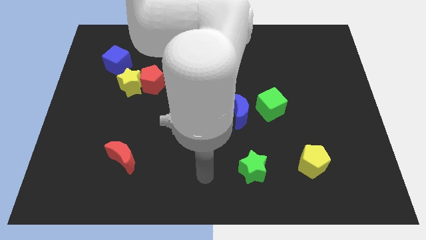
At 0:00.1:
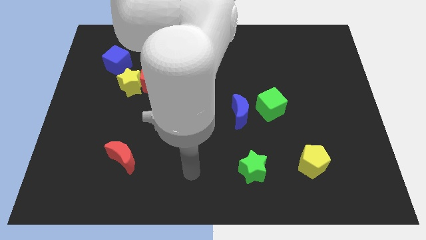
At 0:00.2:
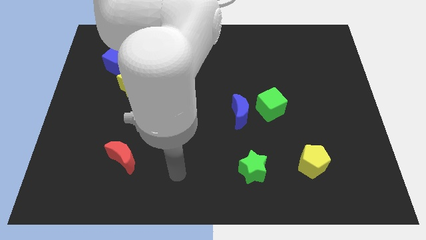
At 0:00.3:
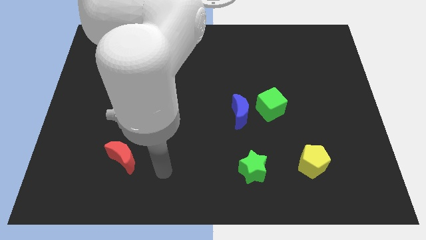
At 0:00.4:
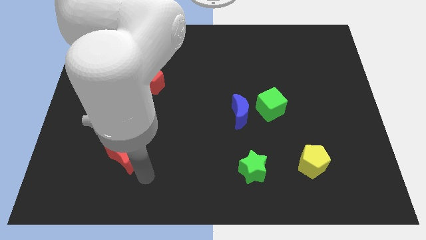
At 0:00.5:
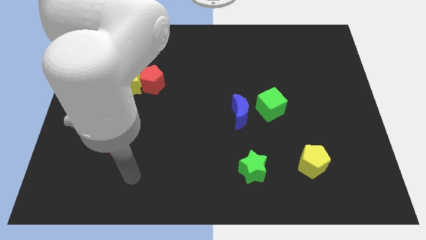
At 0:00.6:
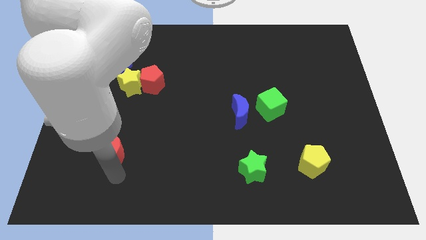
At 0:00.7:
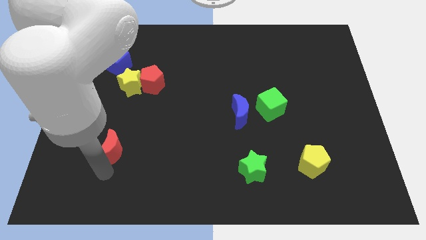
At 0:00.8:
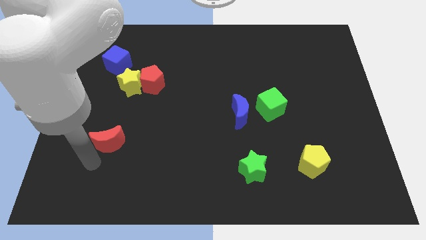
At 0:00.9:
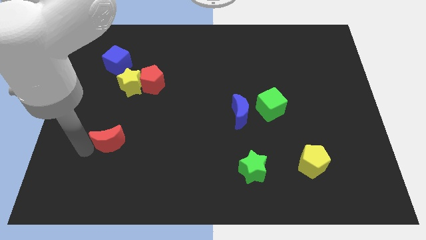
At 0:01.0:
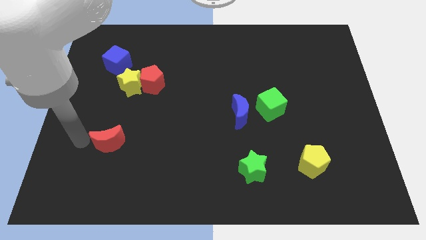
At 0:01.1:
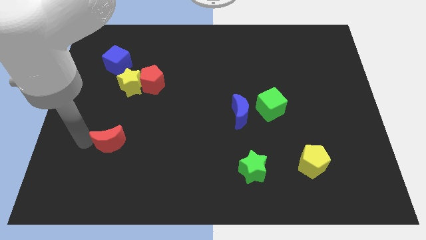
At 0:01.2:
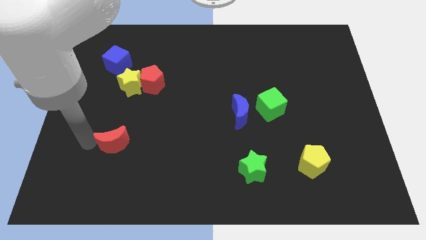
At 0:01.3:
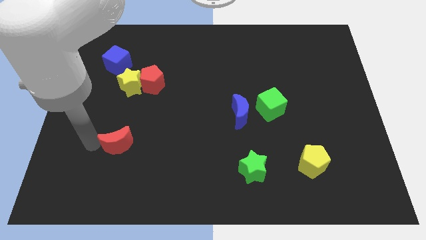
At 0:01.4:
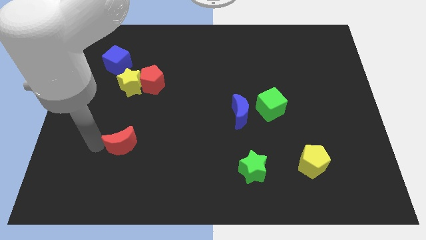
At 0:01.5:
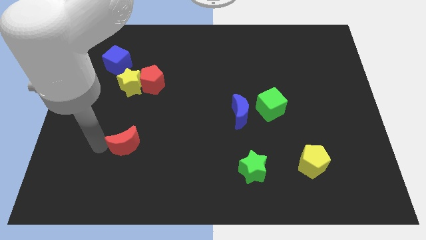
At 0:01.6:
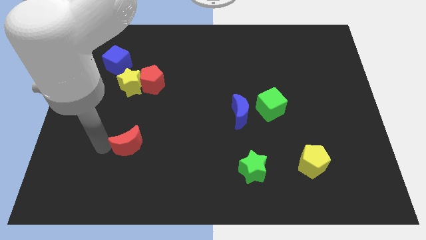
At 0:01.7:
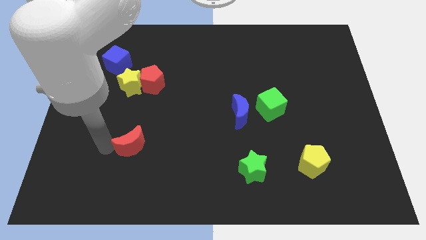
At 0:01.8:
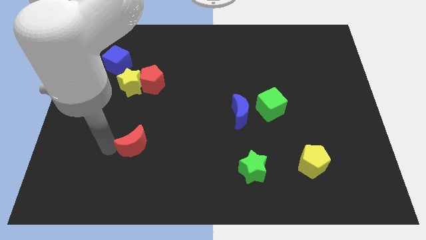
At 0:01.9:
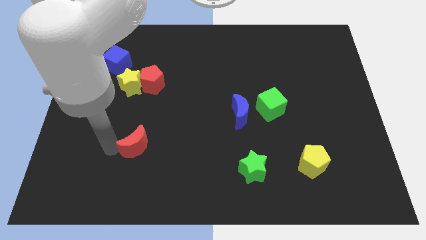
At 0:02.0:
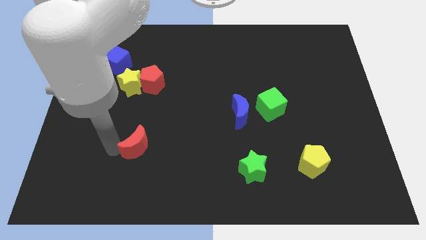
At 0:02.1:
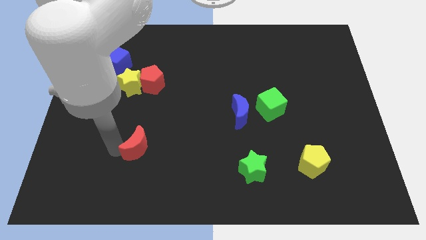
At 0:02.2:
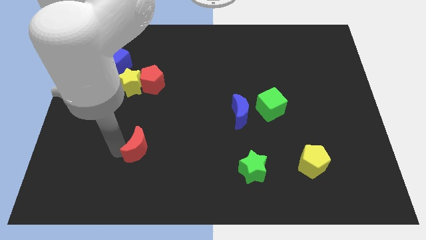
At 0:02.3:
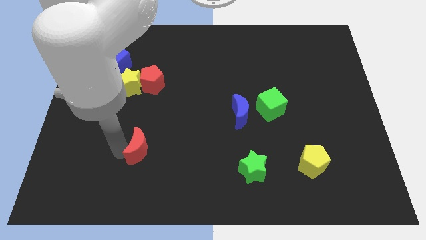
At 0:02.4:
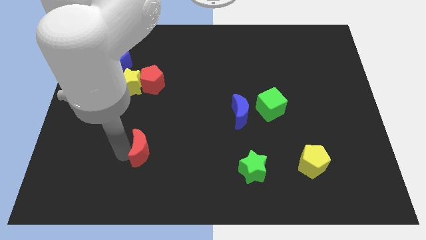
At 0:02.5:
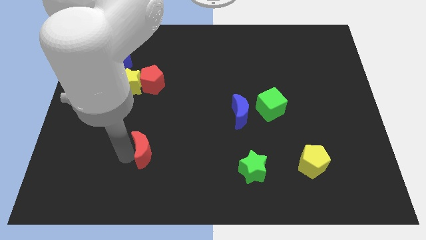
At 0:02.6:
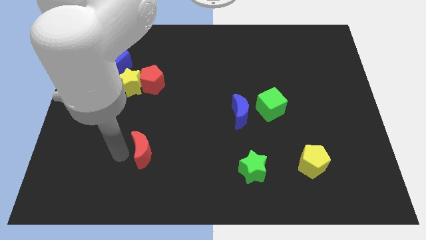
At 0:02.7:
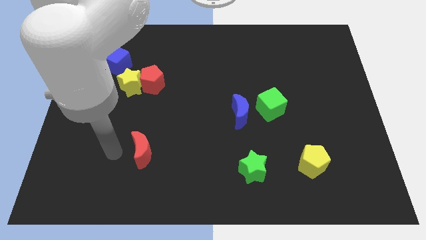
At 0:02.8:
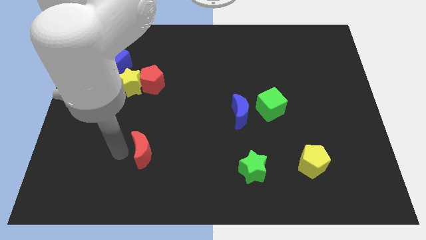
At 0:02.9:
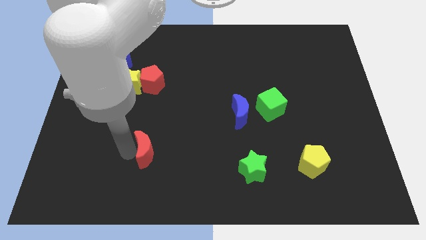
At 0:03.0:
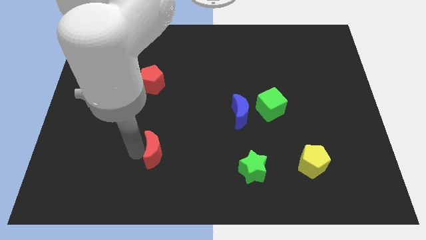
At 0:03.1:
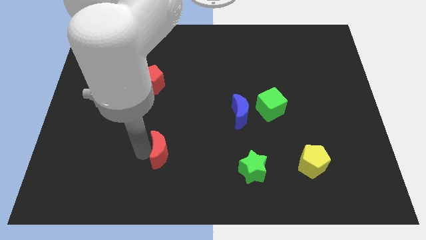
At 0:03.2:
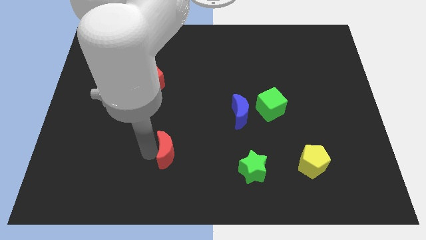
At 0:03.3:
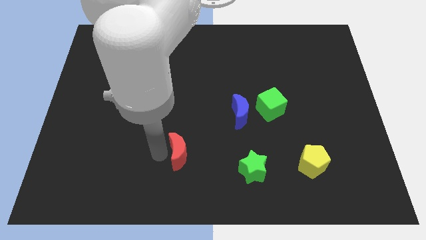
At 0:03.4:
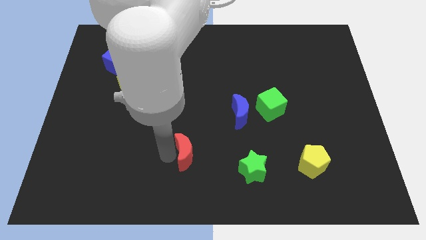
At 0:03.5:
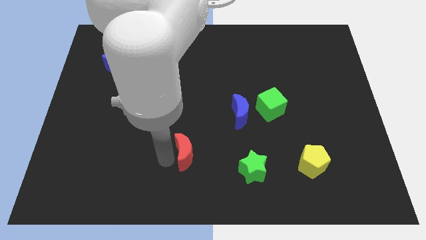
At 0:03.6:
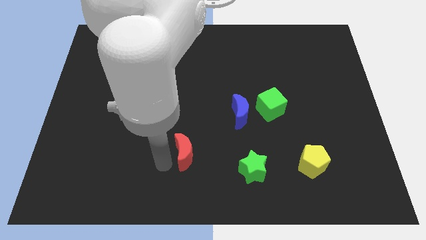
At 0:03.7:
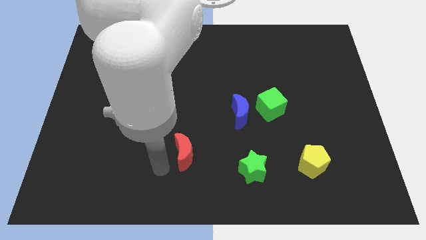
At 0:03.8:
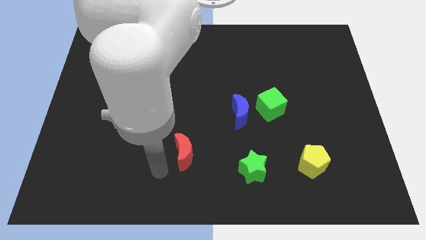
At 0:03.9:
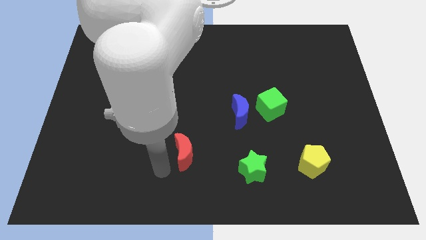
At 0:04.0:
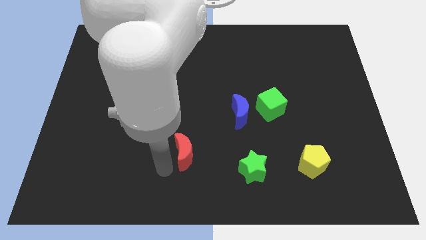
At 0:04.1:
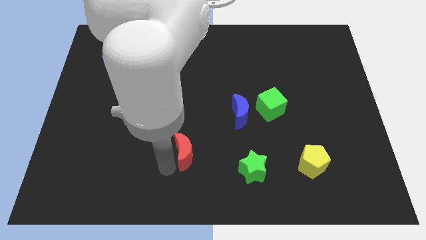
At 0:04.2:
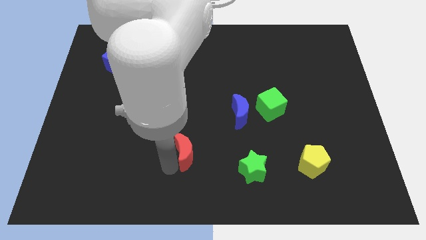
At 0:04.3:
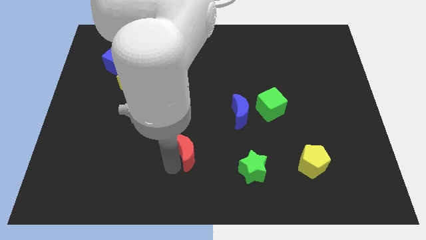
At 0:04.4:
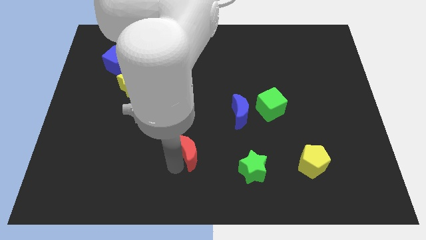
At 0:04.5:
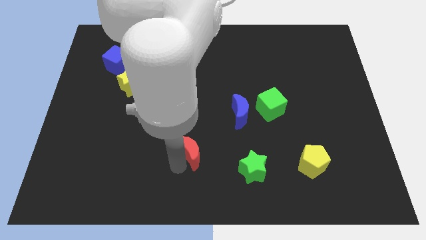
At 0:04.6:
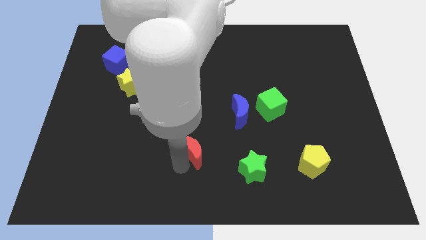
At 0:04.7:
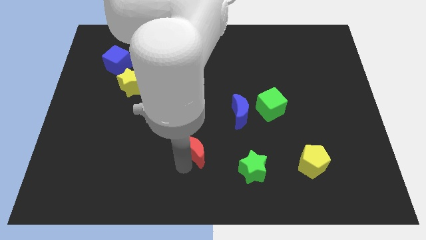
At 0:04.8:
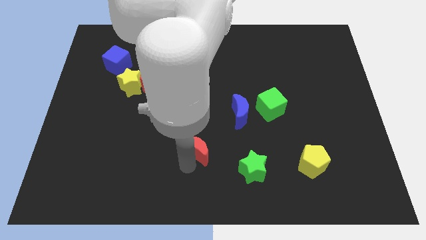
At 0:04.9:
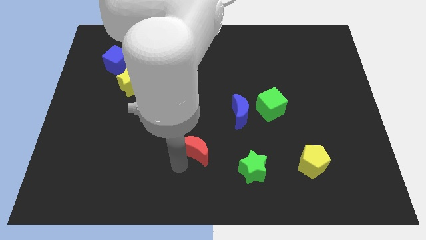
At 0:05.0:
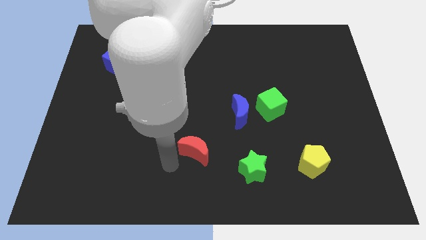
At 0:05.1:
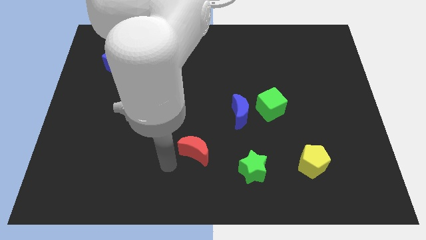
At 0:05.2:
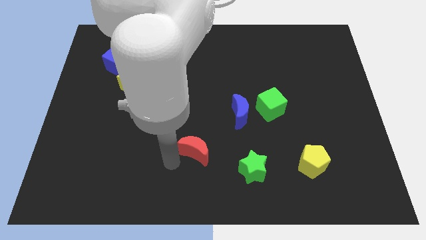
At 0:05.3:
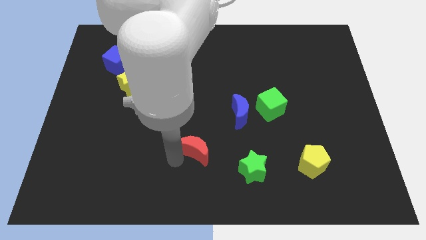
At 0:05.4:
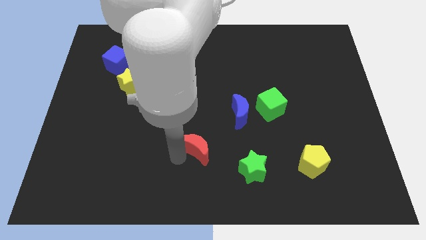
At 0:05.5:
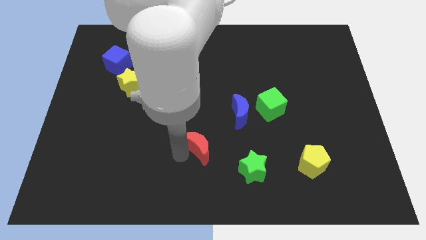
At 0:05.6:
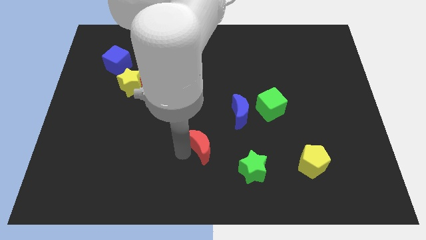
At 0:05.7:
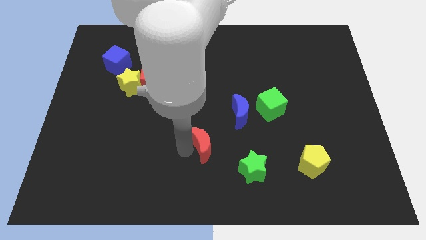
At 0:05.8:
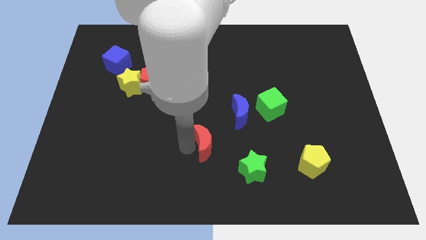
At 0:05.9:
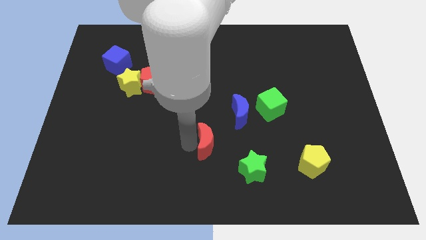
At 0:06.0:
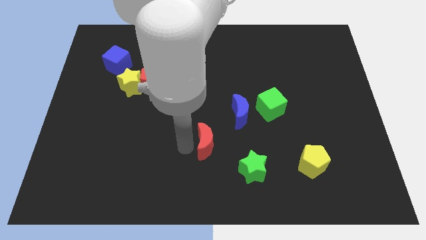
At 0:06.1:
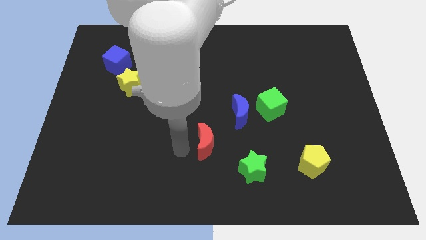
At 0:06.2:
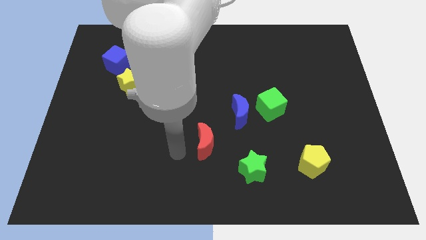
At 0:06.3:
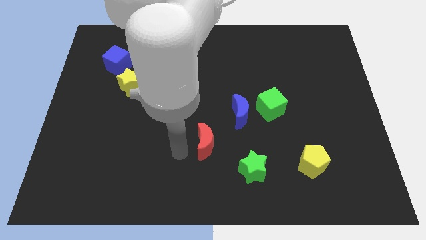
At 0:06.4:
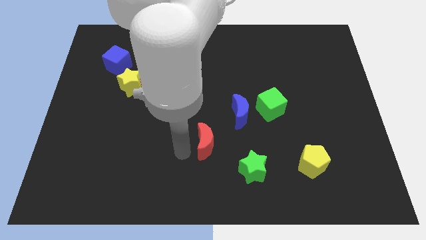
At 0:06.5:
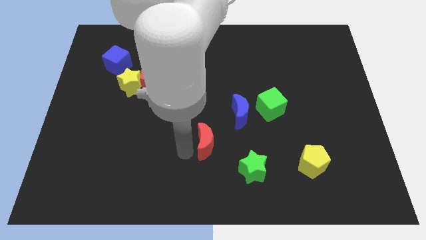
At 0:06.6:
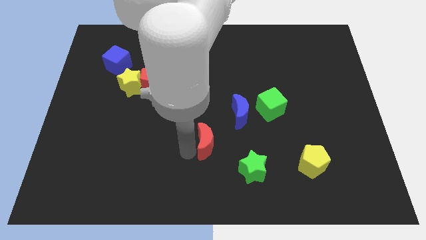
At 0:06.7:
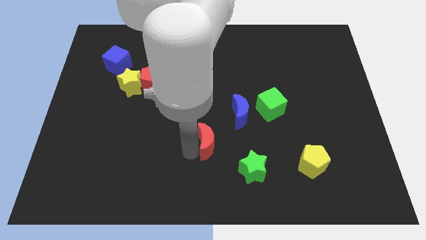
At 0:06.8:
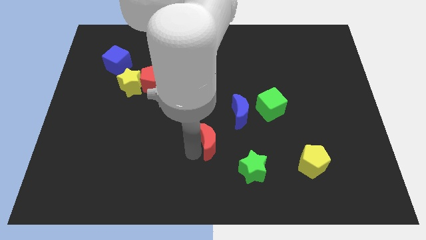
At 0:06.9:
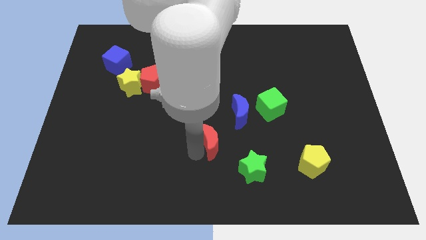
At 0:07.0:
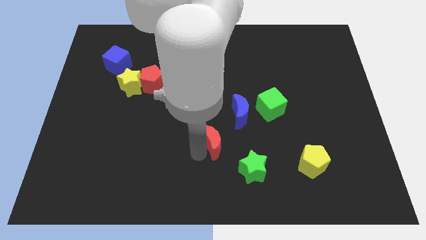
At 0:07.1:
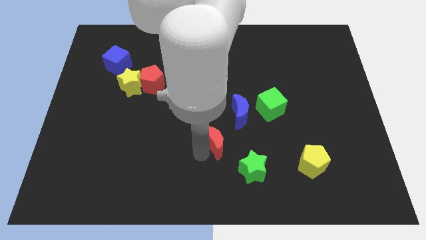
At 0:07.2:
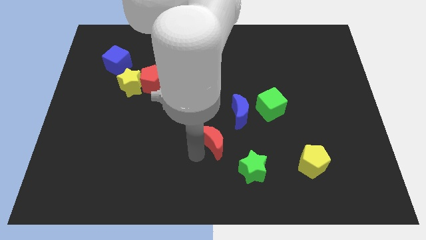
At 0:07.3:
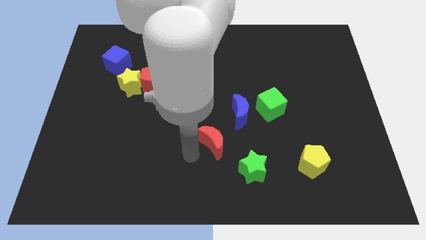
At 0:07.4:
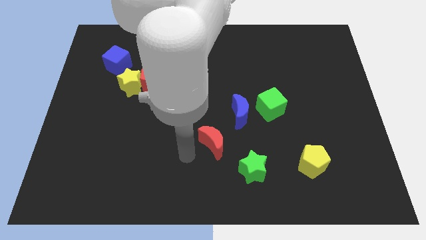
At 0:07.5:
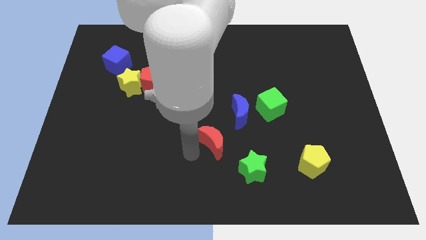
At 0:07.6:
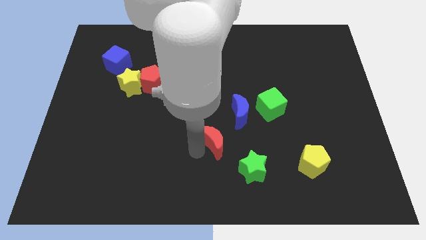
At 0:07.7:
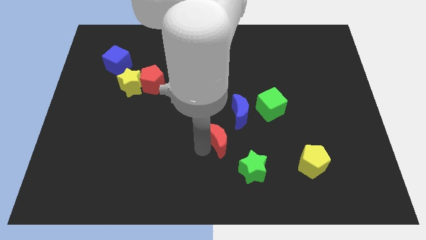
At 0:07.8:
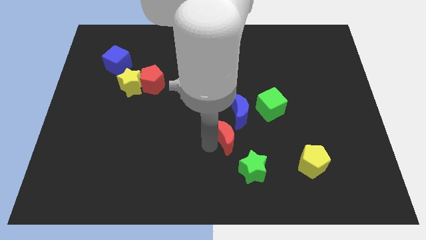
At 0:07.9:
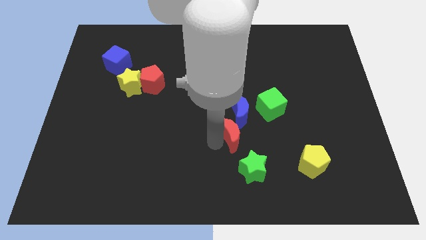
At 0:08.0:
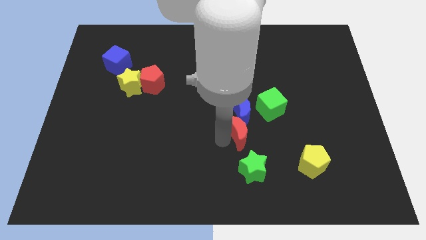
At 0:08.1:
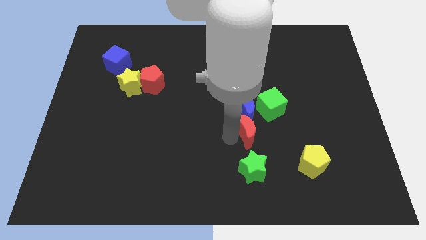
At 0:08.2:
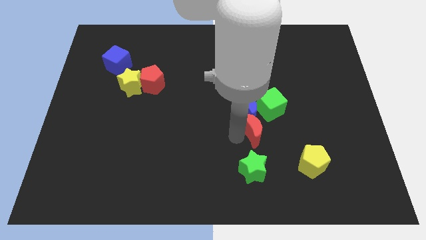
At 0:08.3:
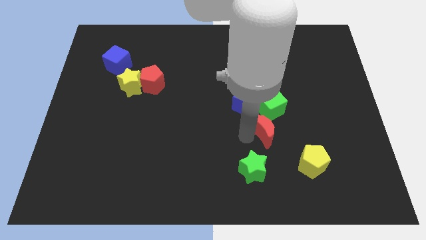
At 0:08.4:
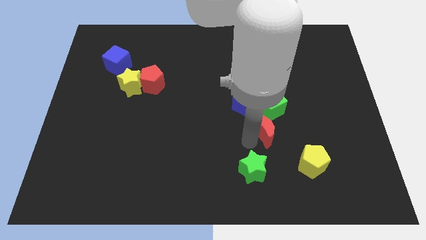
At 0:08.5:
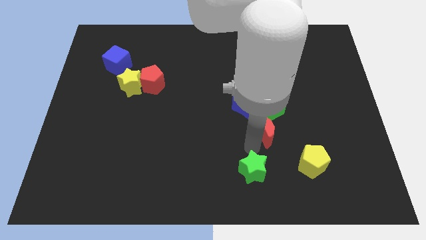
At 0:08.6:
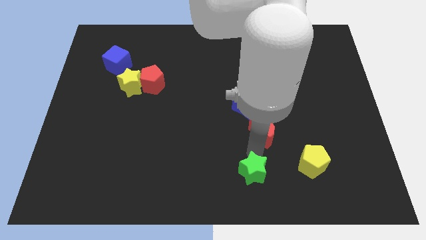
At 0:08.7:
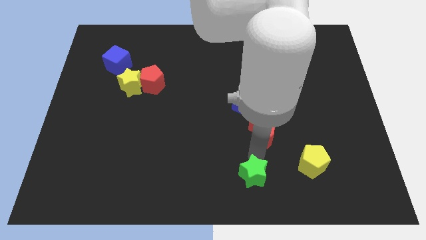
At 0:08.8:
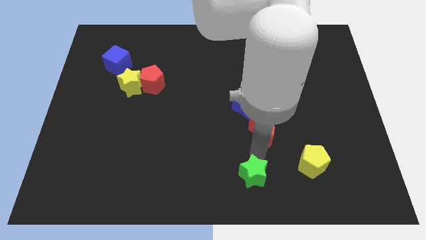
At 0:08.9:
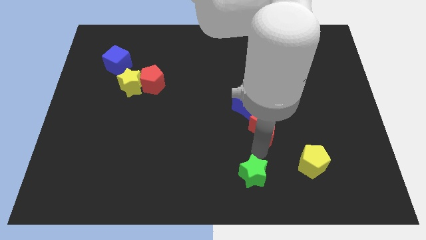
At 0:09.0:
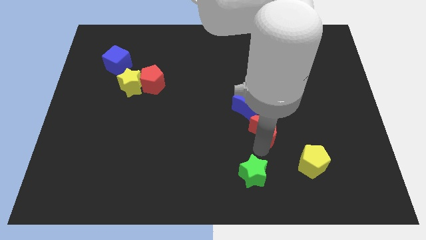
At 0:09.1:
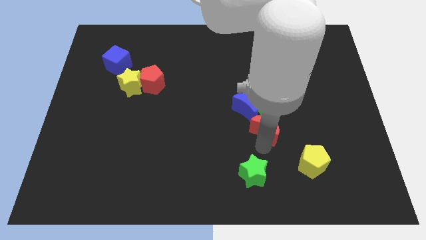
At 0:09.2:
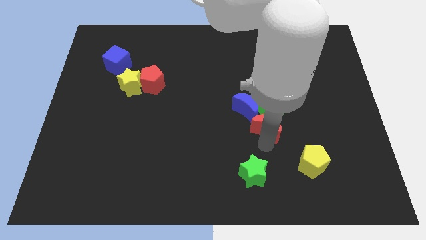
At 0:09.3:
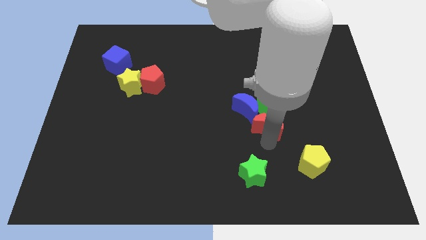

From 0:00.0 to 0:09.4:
push the red moon close to the green cube
